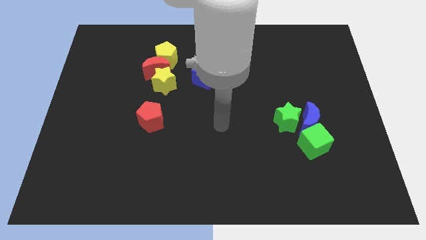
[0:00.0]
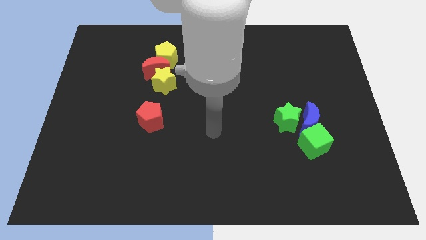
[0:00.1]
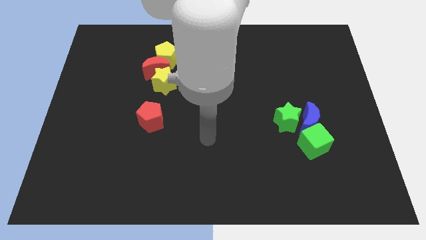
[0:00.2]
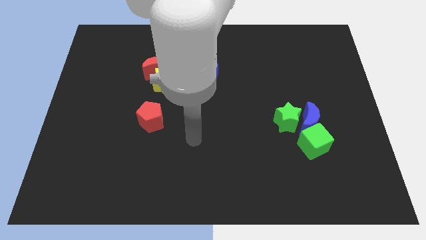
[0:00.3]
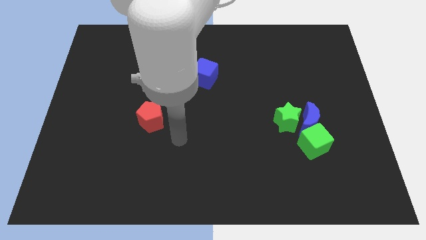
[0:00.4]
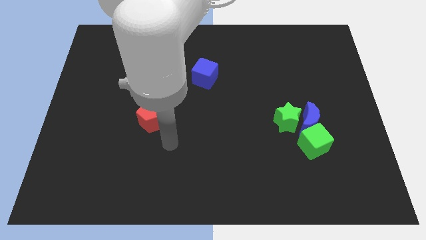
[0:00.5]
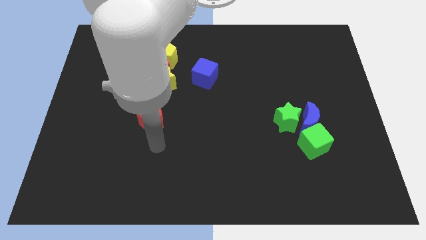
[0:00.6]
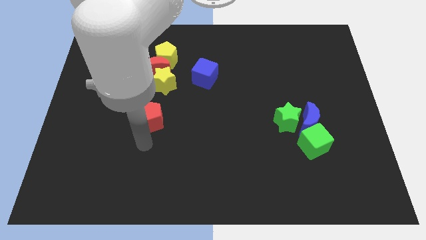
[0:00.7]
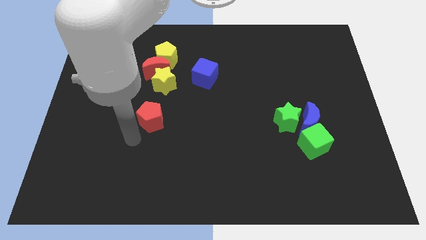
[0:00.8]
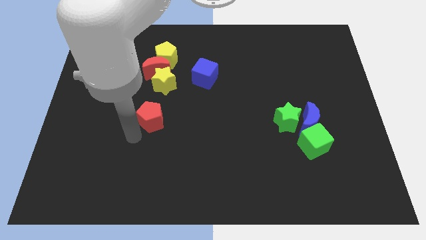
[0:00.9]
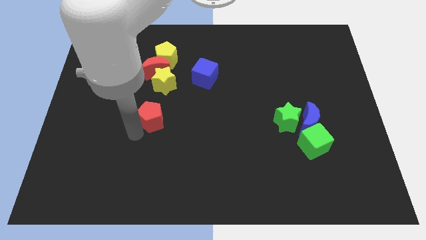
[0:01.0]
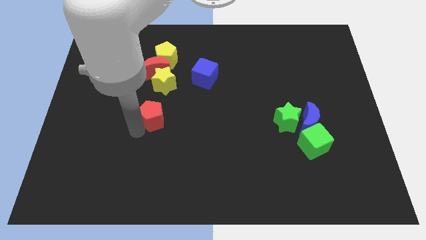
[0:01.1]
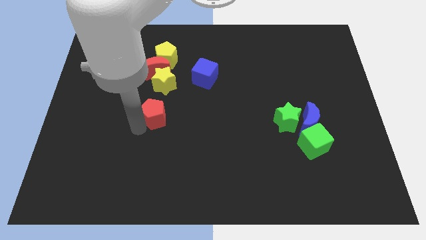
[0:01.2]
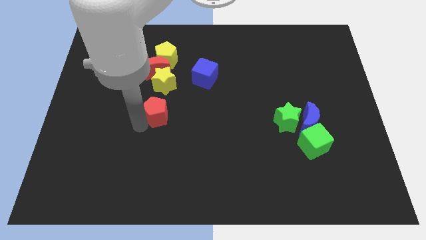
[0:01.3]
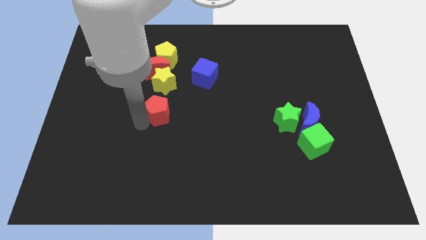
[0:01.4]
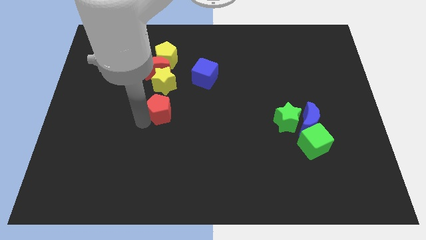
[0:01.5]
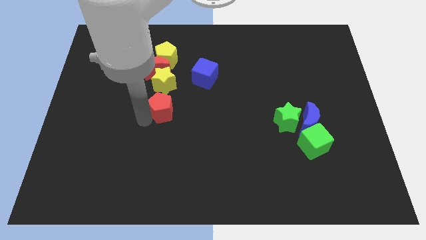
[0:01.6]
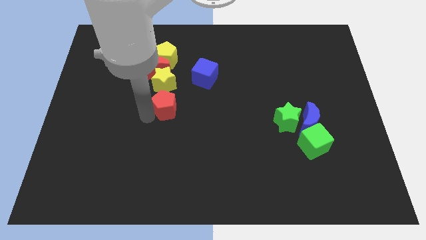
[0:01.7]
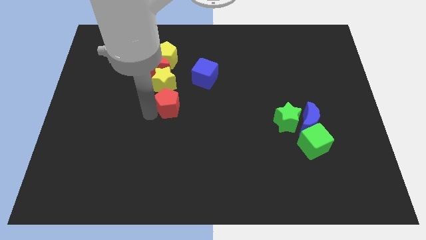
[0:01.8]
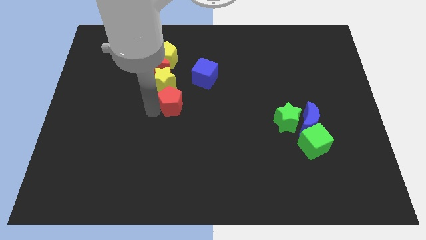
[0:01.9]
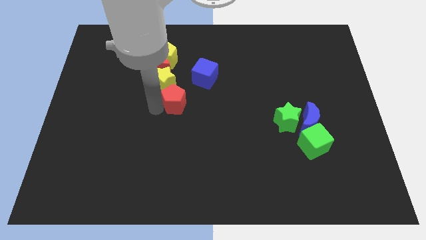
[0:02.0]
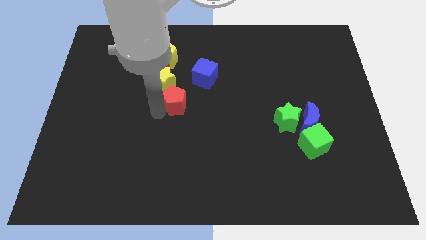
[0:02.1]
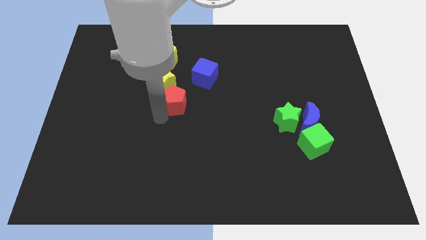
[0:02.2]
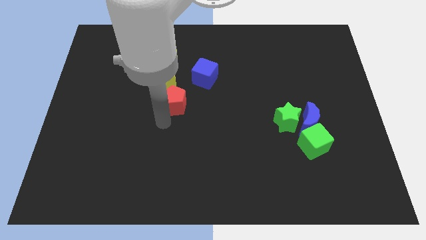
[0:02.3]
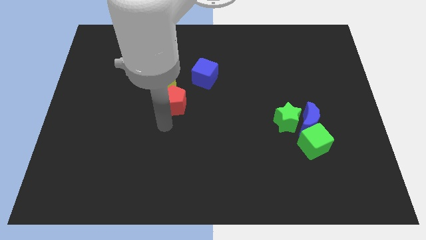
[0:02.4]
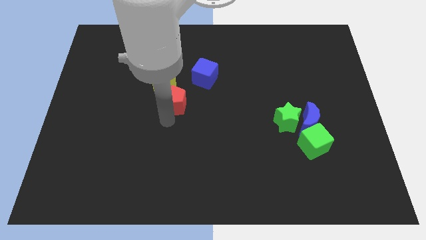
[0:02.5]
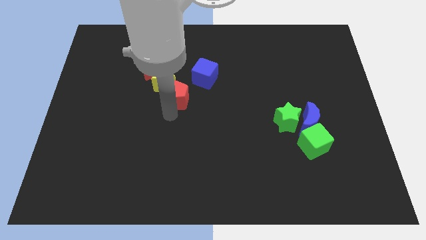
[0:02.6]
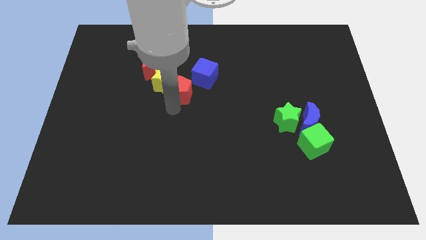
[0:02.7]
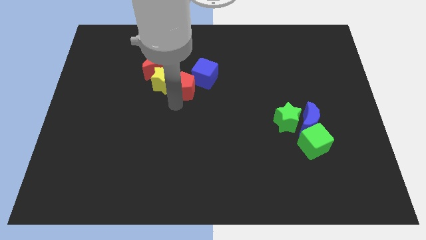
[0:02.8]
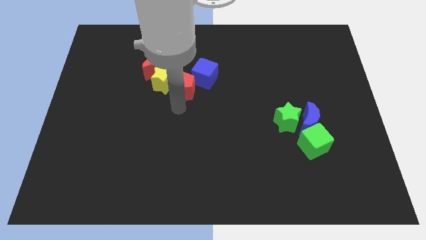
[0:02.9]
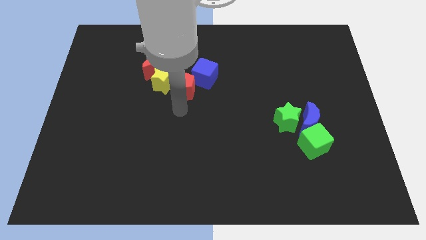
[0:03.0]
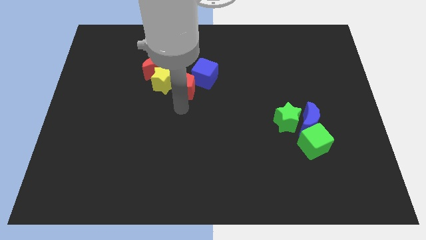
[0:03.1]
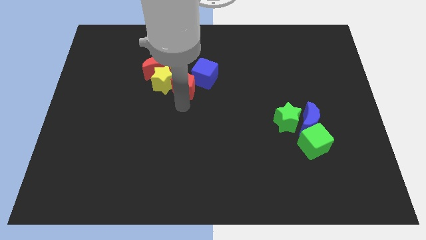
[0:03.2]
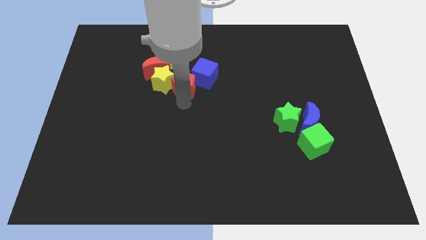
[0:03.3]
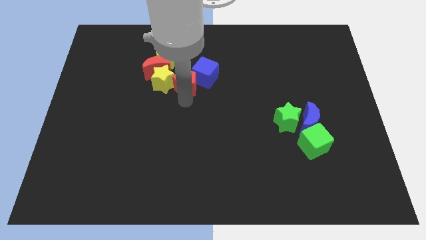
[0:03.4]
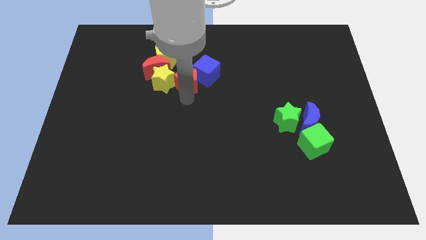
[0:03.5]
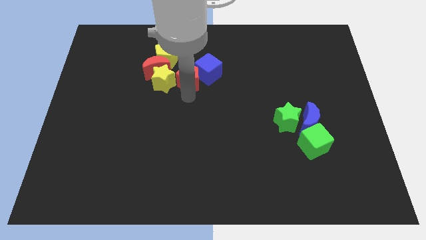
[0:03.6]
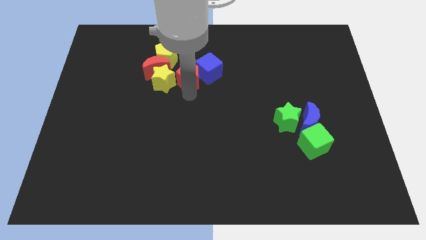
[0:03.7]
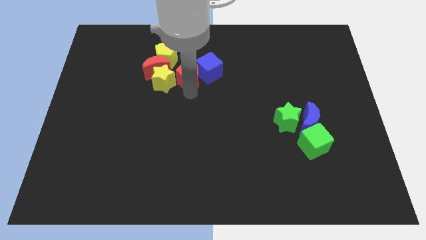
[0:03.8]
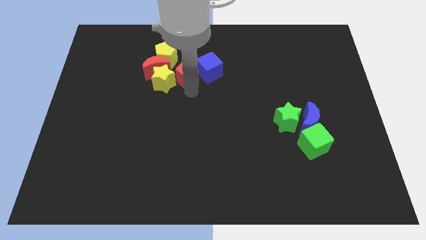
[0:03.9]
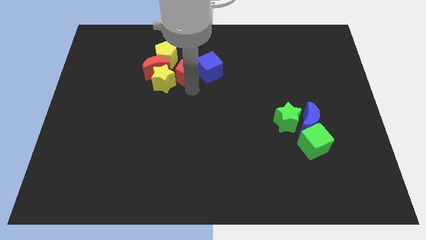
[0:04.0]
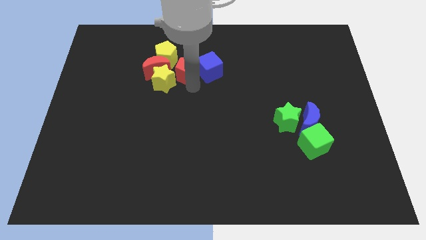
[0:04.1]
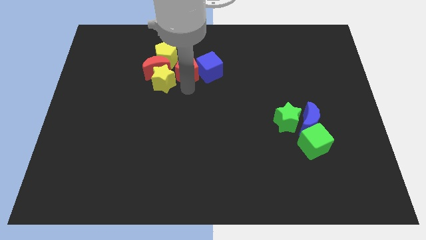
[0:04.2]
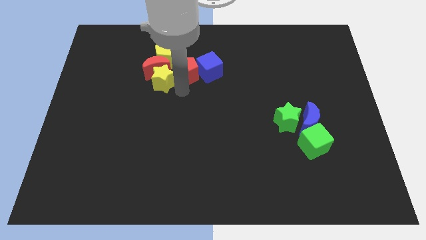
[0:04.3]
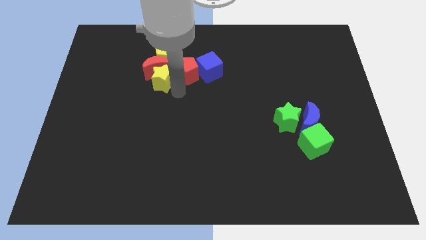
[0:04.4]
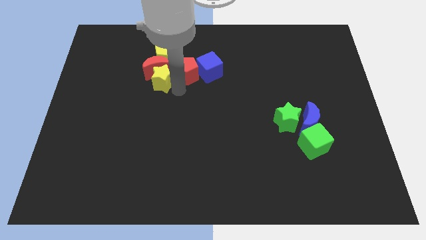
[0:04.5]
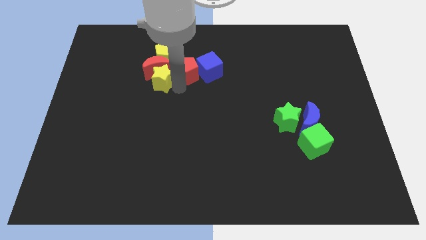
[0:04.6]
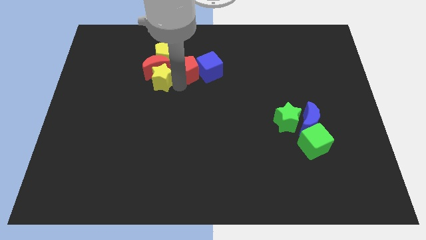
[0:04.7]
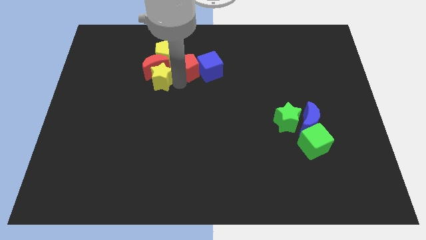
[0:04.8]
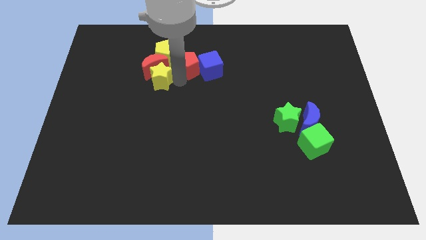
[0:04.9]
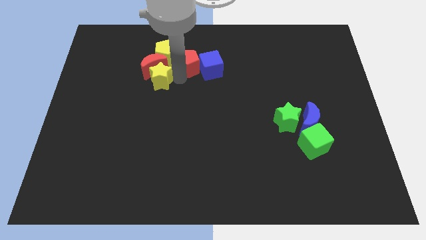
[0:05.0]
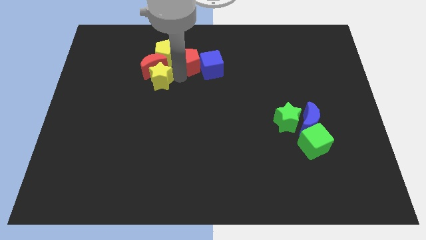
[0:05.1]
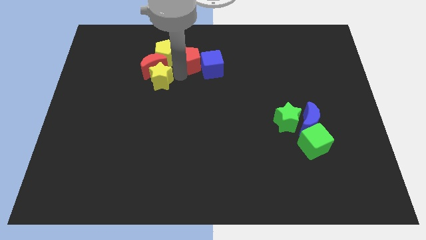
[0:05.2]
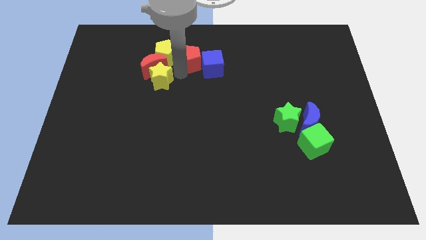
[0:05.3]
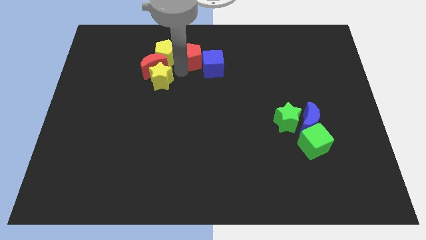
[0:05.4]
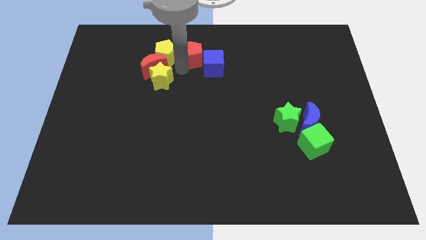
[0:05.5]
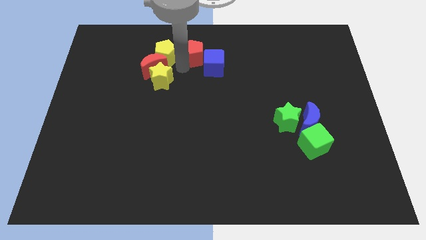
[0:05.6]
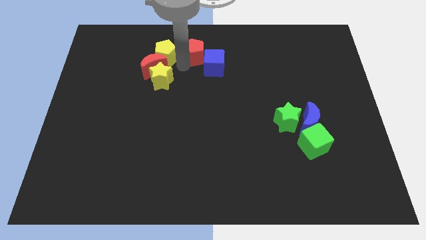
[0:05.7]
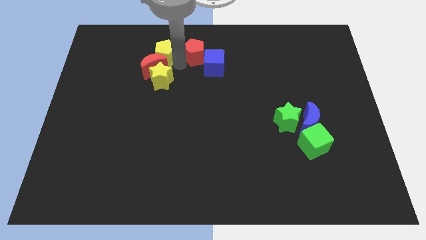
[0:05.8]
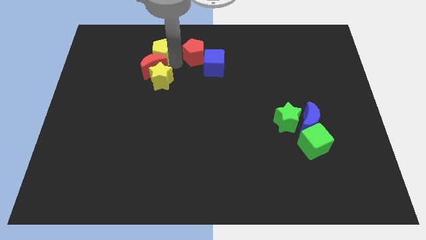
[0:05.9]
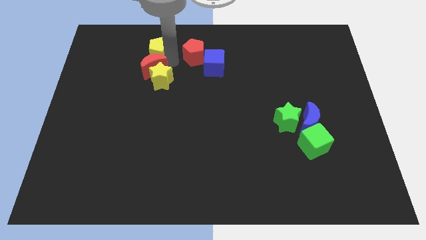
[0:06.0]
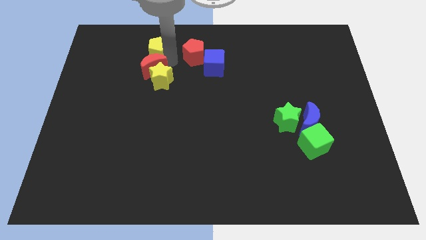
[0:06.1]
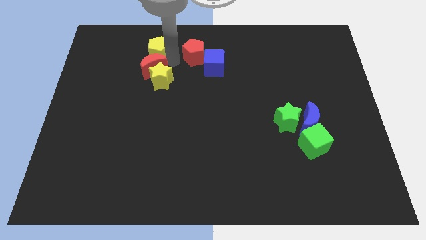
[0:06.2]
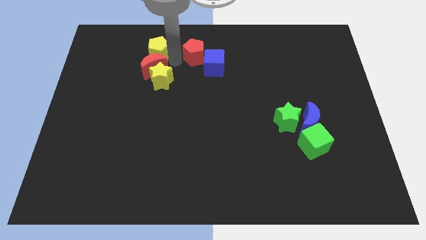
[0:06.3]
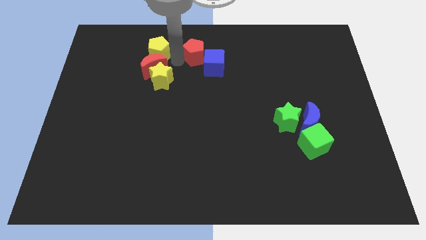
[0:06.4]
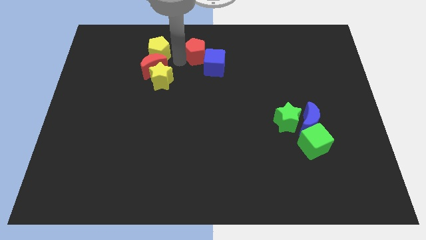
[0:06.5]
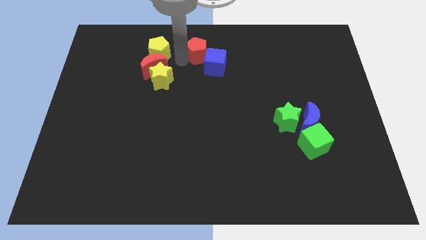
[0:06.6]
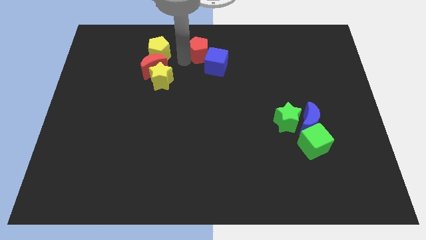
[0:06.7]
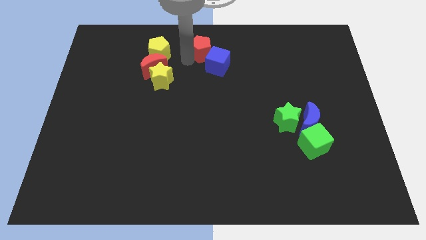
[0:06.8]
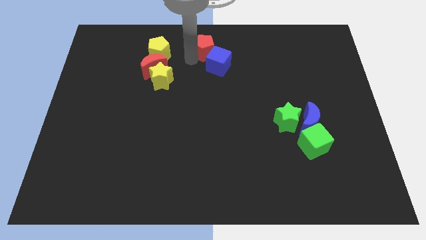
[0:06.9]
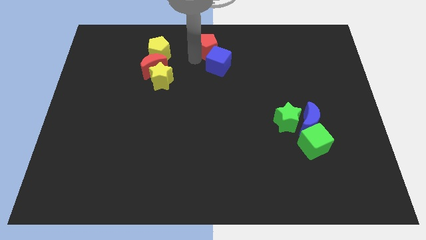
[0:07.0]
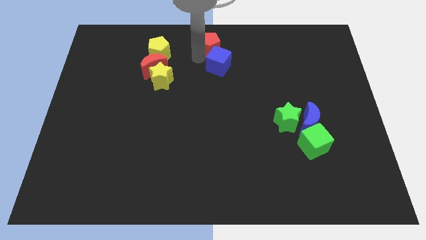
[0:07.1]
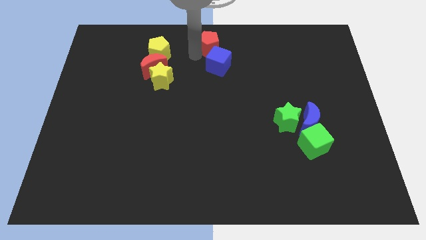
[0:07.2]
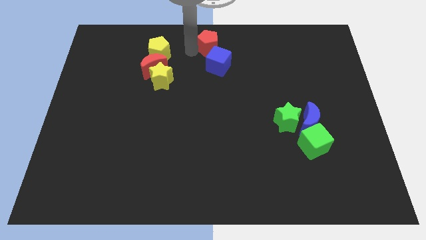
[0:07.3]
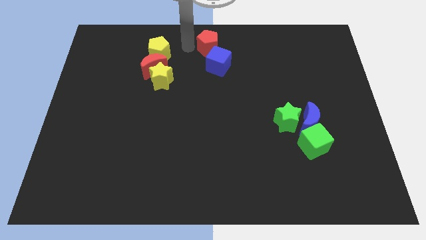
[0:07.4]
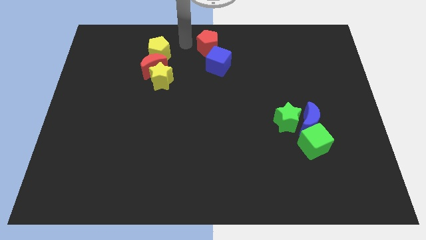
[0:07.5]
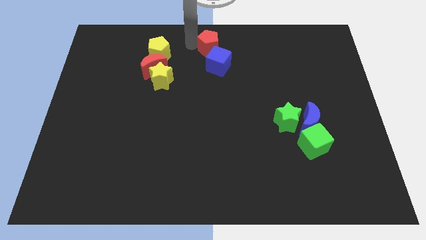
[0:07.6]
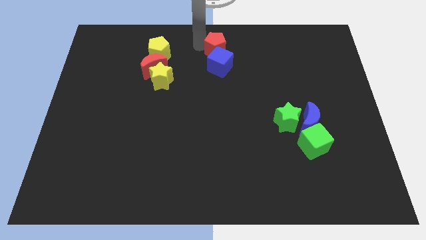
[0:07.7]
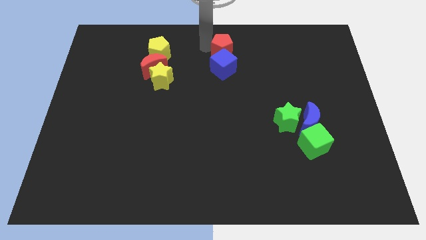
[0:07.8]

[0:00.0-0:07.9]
push the red pentagon to the top right of the blue cube

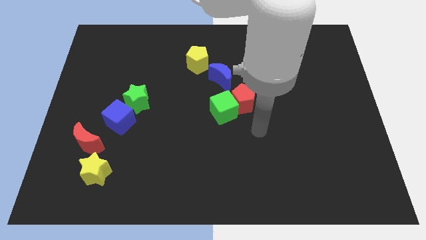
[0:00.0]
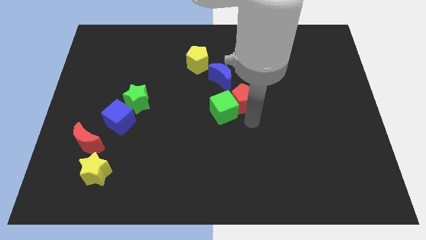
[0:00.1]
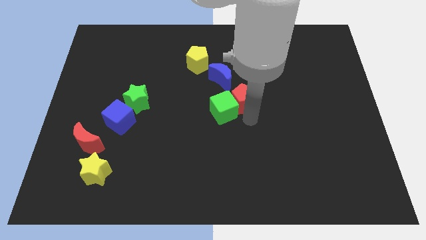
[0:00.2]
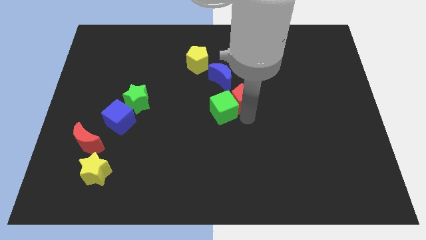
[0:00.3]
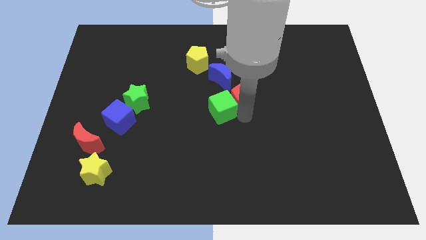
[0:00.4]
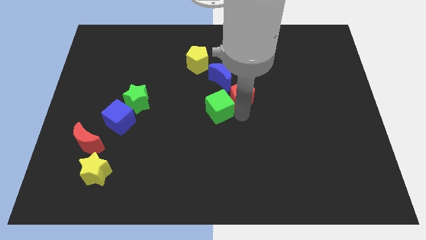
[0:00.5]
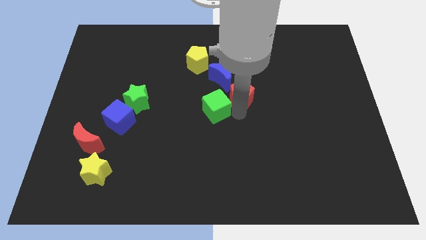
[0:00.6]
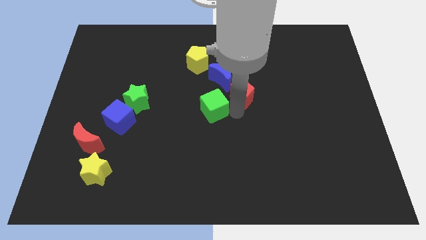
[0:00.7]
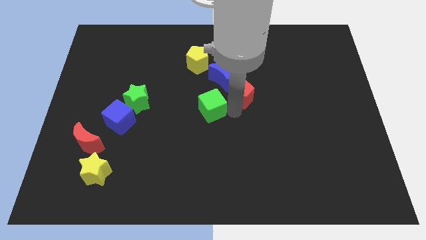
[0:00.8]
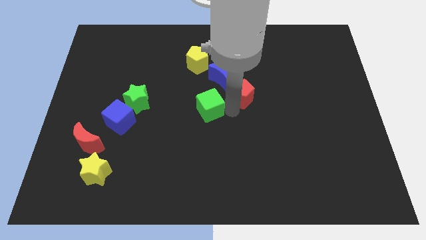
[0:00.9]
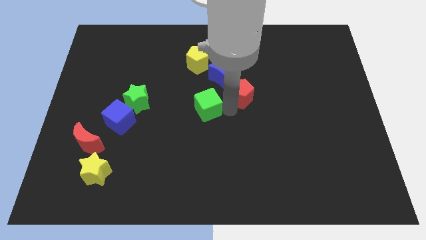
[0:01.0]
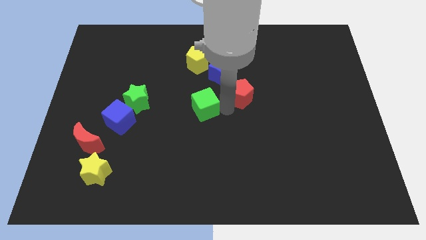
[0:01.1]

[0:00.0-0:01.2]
put the green cube just right of the green star
